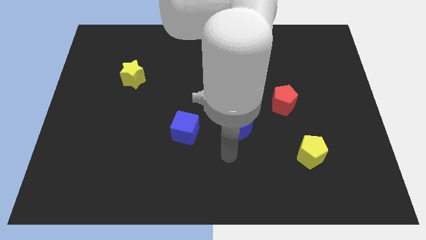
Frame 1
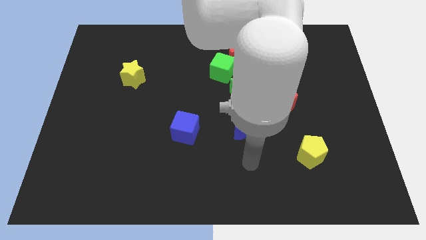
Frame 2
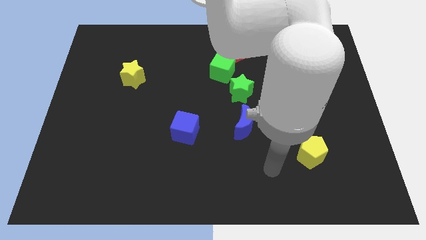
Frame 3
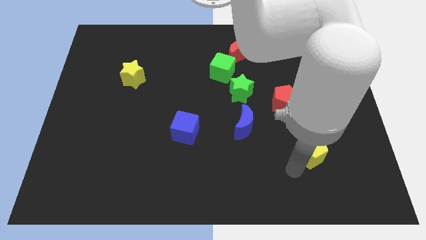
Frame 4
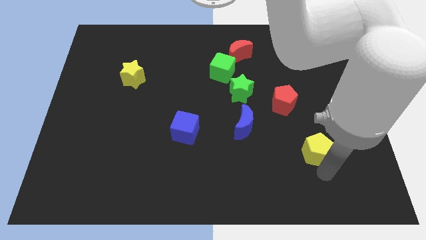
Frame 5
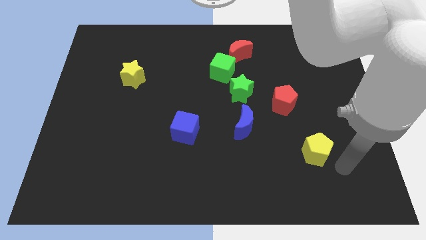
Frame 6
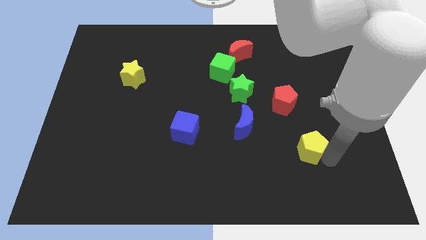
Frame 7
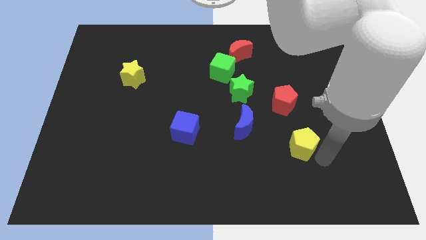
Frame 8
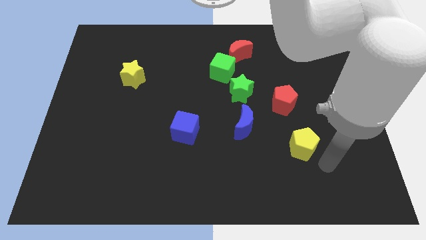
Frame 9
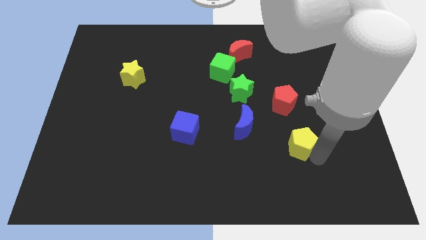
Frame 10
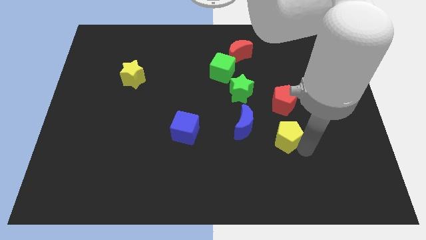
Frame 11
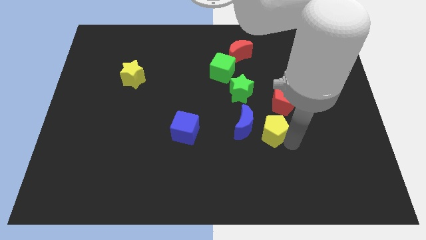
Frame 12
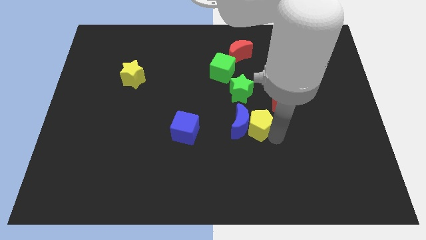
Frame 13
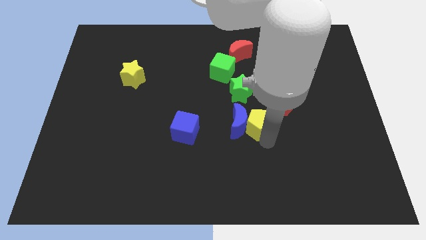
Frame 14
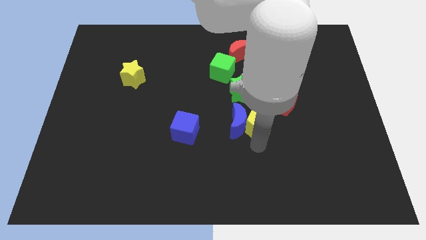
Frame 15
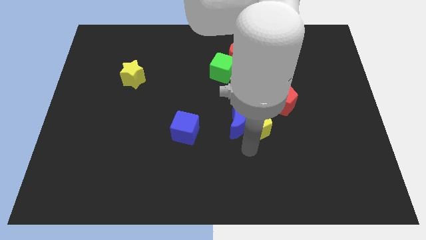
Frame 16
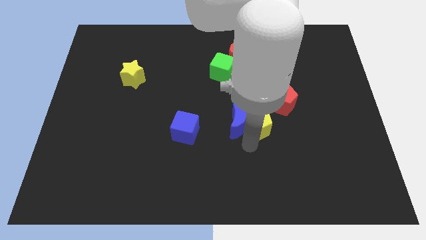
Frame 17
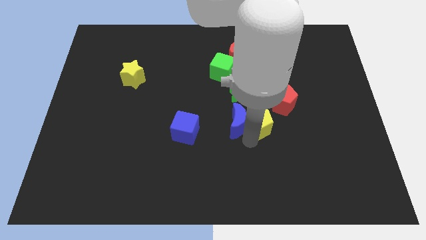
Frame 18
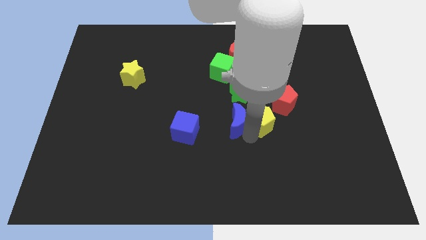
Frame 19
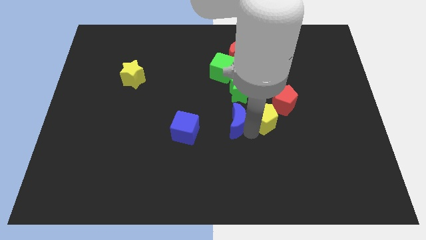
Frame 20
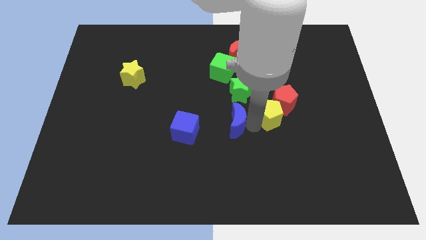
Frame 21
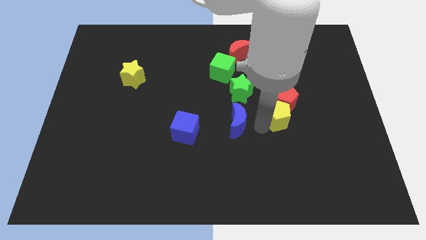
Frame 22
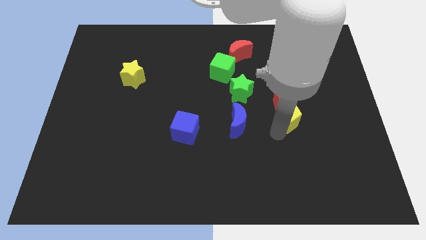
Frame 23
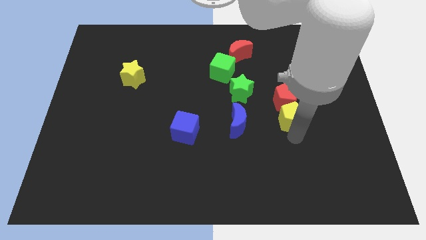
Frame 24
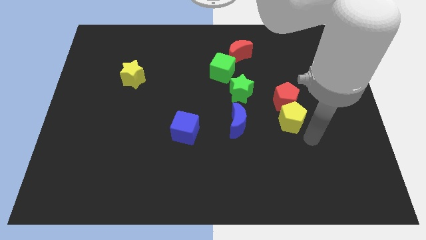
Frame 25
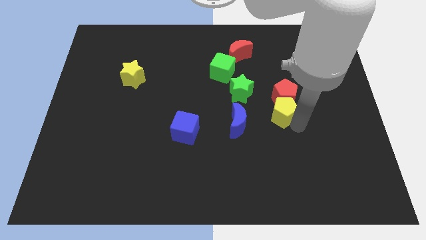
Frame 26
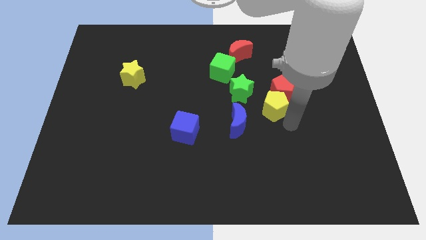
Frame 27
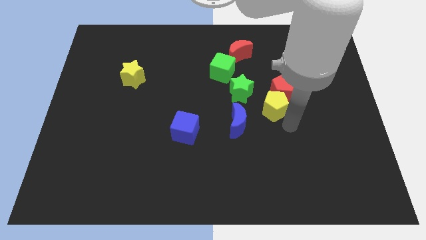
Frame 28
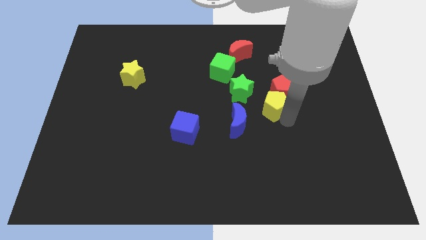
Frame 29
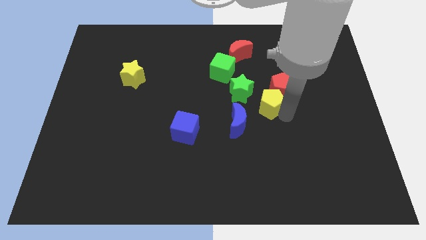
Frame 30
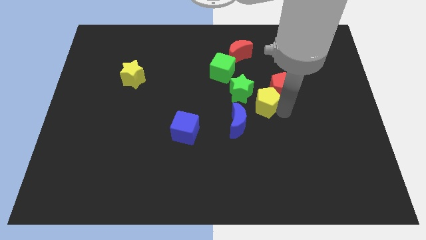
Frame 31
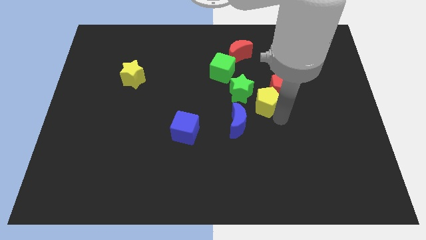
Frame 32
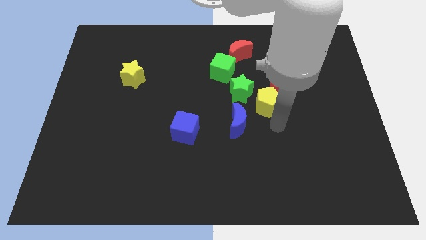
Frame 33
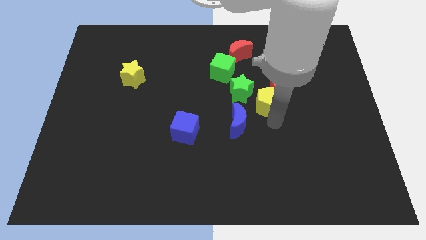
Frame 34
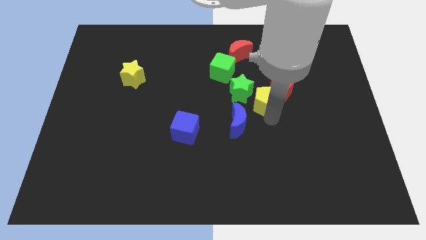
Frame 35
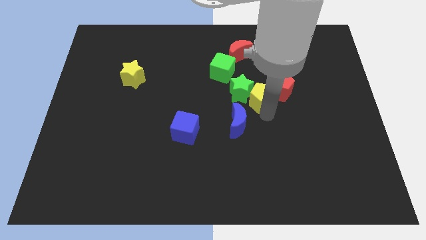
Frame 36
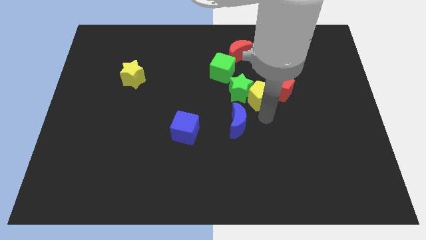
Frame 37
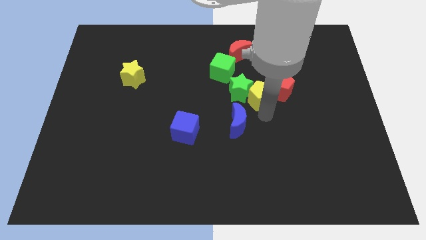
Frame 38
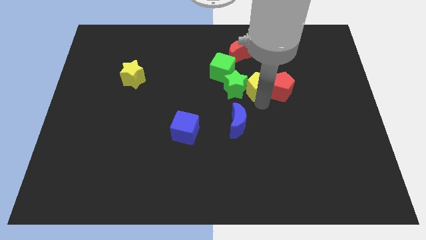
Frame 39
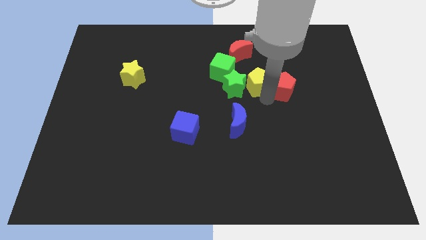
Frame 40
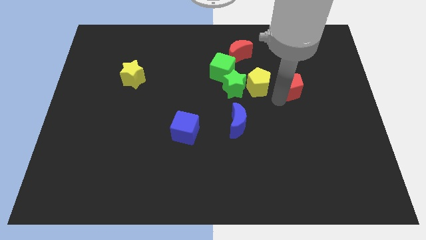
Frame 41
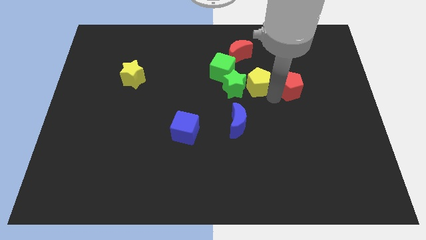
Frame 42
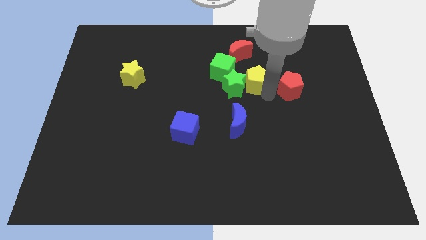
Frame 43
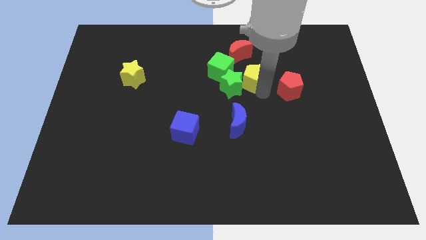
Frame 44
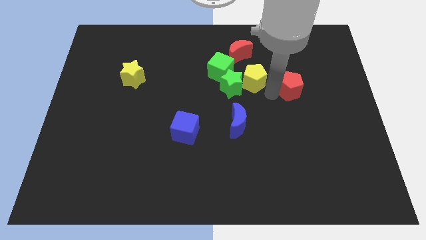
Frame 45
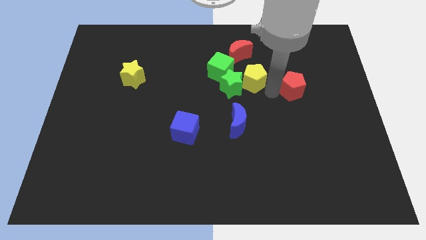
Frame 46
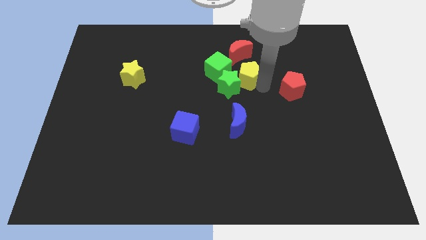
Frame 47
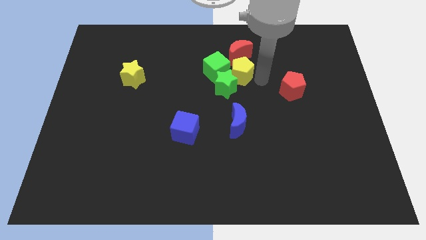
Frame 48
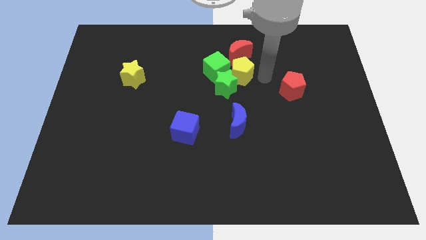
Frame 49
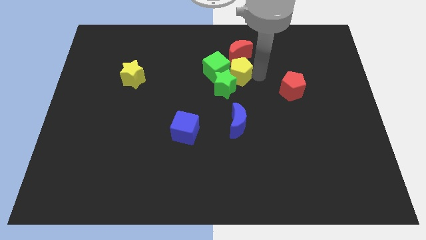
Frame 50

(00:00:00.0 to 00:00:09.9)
move the yellow pentagon towards the green cube

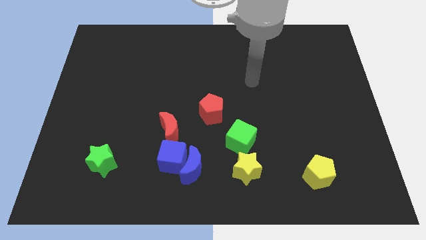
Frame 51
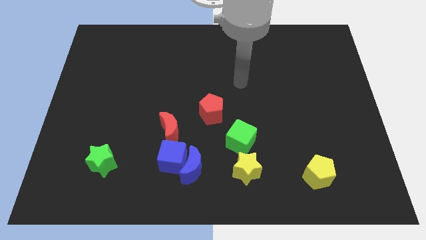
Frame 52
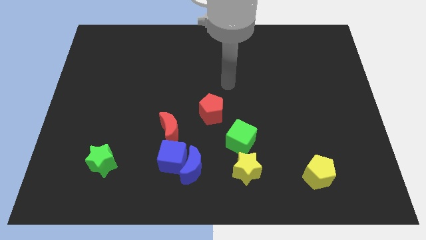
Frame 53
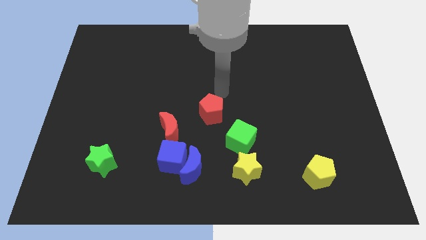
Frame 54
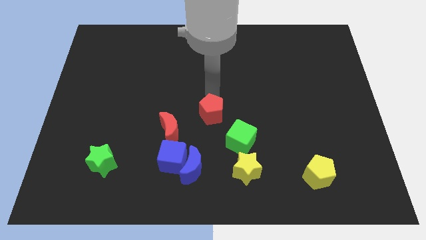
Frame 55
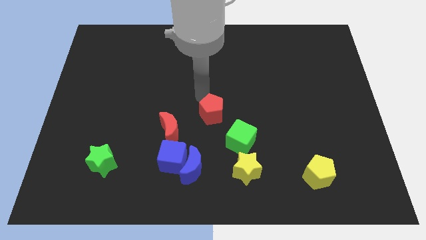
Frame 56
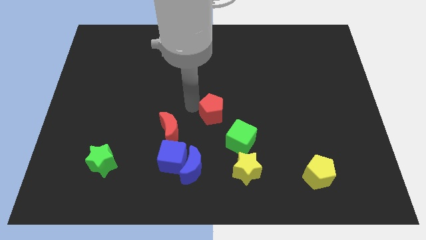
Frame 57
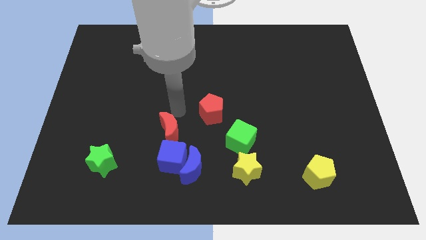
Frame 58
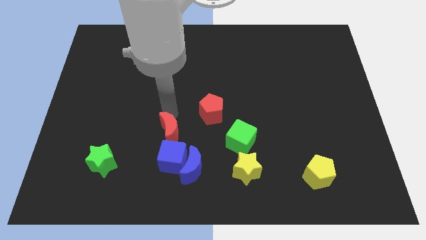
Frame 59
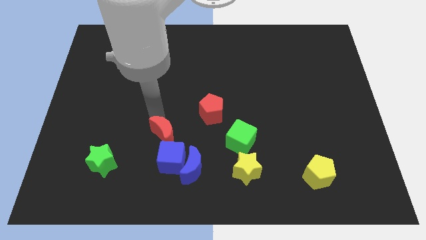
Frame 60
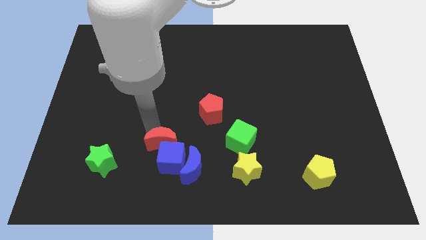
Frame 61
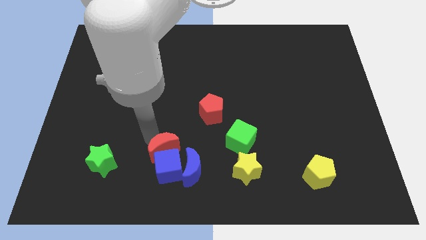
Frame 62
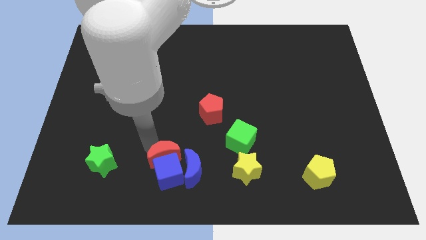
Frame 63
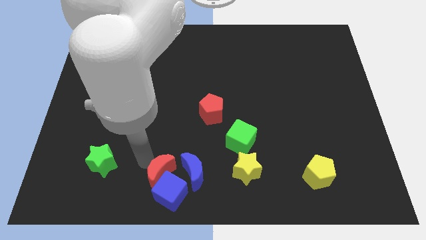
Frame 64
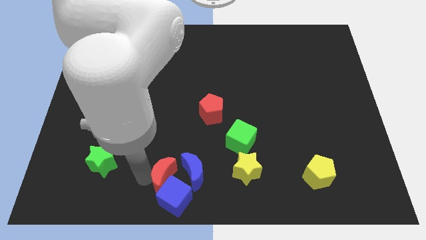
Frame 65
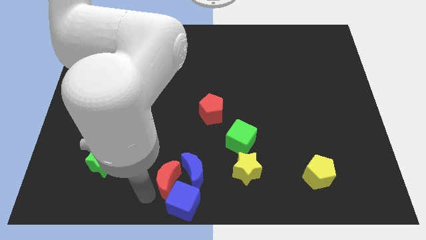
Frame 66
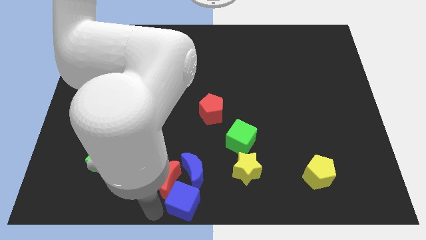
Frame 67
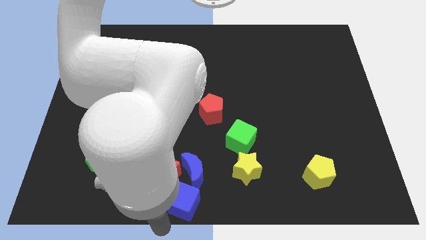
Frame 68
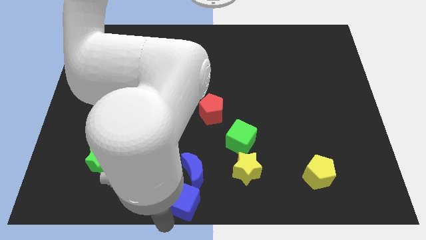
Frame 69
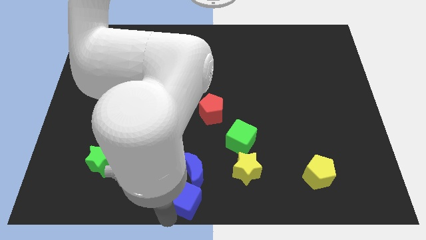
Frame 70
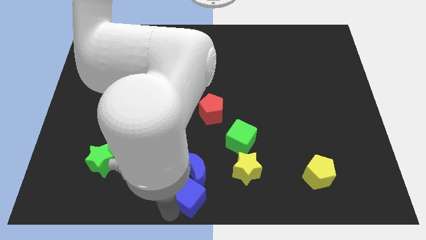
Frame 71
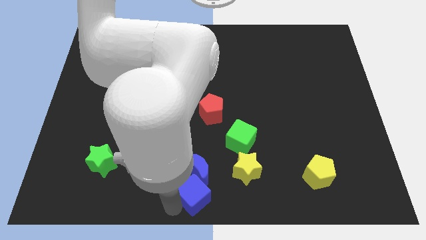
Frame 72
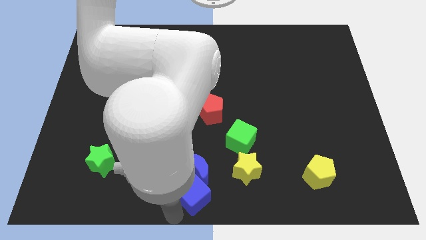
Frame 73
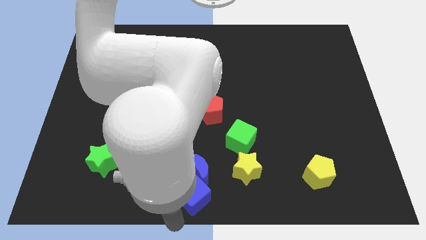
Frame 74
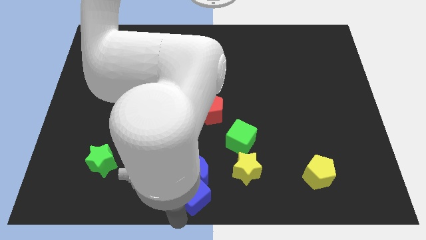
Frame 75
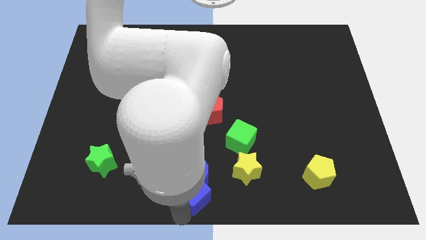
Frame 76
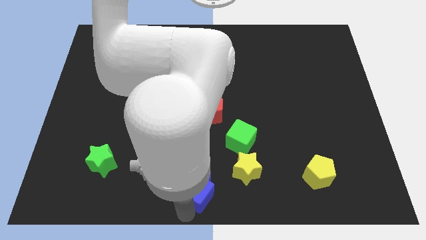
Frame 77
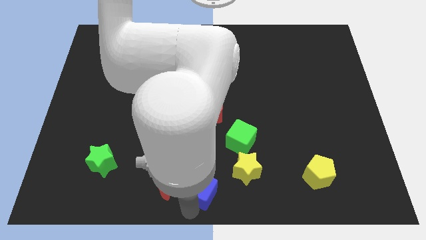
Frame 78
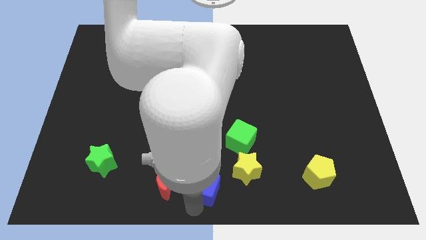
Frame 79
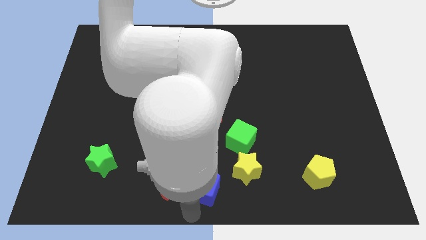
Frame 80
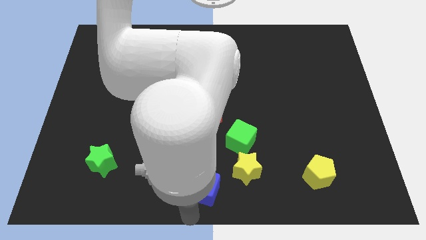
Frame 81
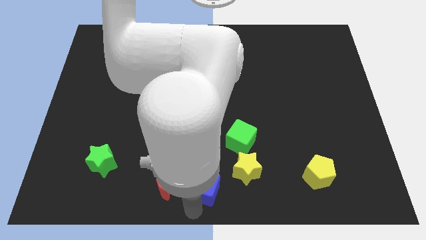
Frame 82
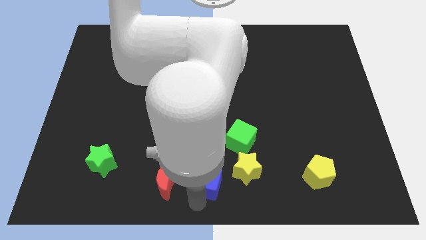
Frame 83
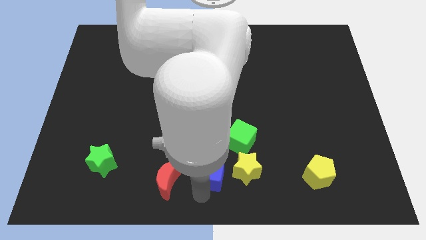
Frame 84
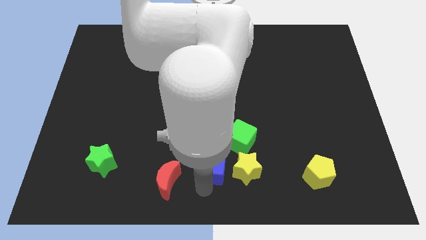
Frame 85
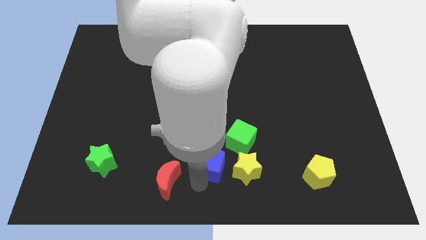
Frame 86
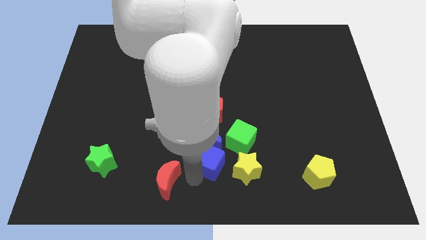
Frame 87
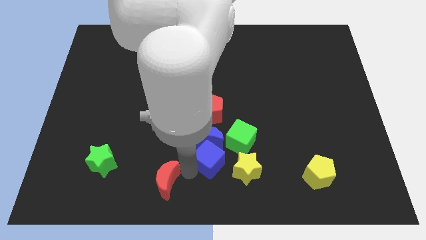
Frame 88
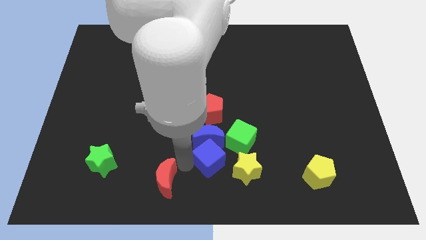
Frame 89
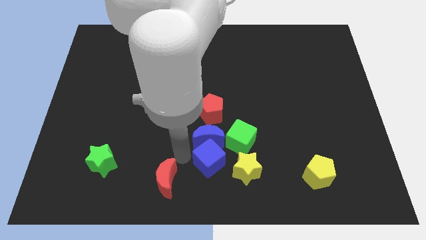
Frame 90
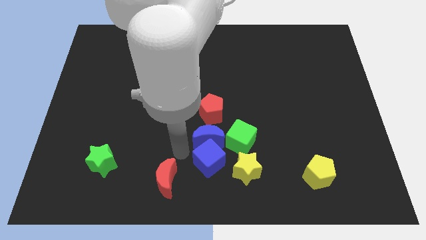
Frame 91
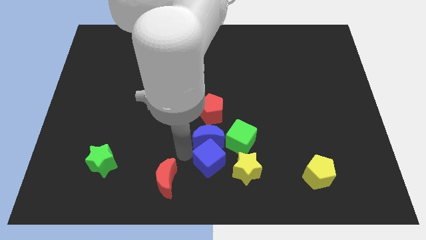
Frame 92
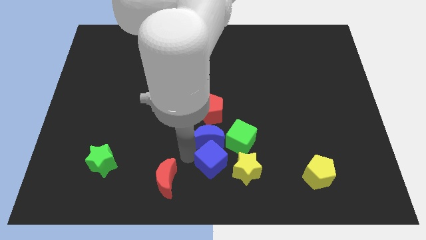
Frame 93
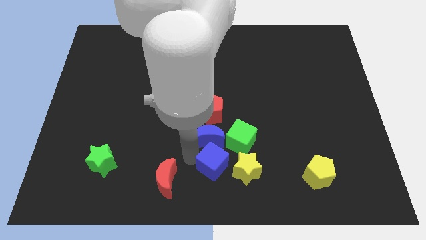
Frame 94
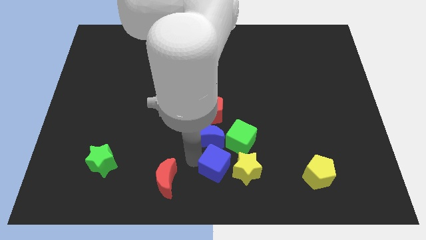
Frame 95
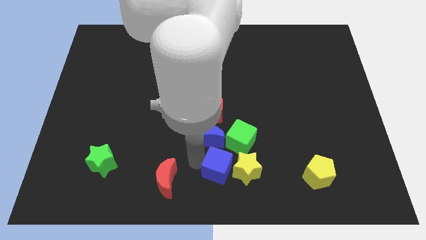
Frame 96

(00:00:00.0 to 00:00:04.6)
push the blue cube next to the yellow star
